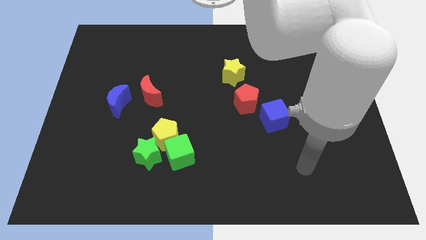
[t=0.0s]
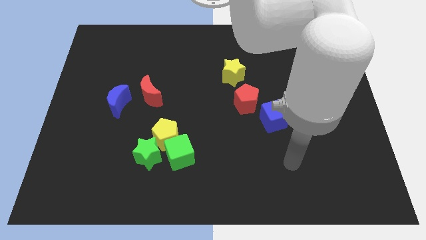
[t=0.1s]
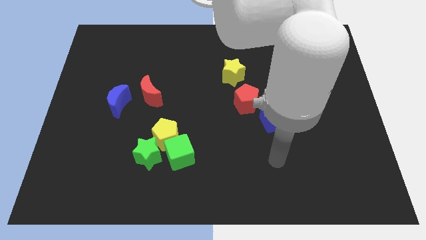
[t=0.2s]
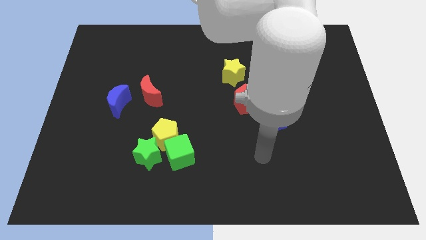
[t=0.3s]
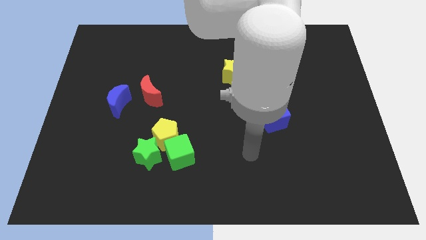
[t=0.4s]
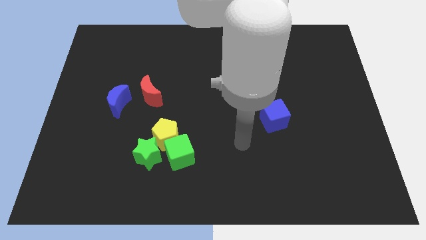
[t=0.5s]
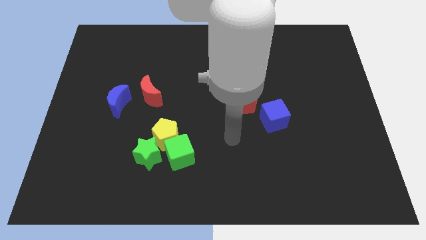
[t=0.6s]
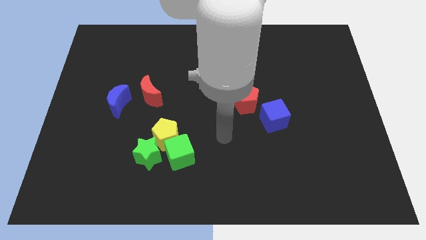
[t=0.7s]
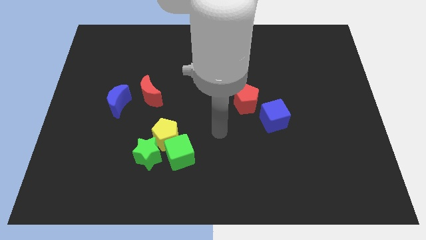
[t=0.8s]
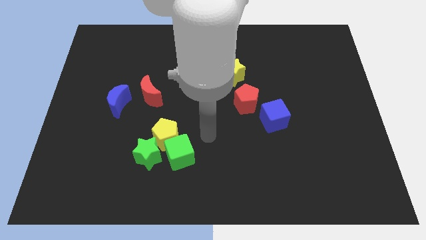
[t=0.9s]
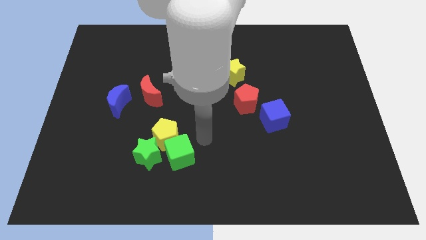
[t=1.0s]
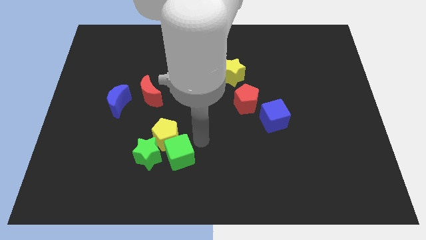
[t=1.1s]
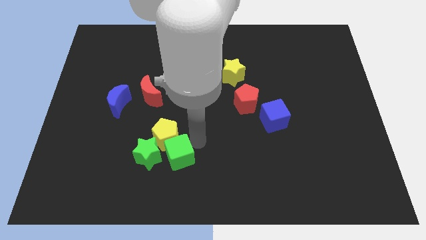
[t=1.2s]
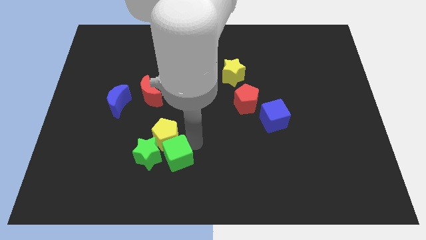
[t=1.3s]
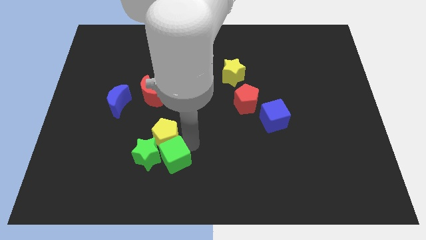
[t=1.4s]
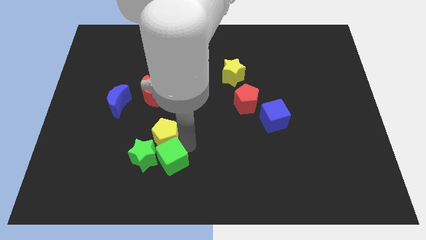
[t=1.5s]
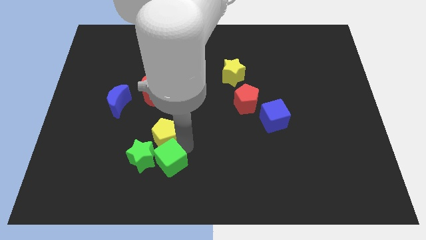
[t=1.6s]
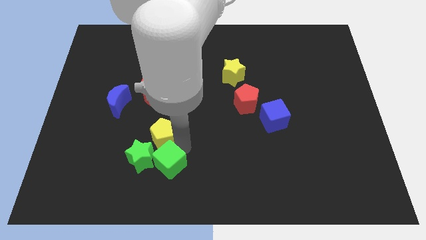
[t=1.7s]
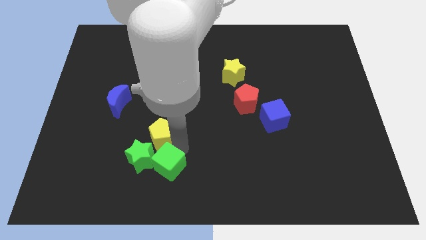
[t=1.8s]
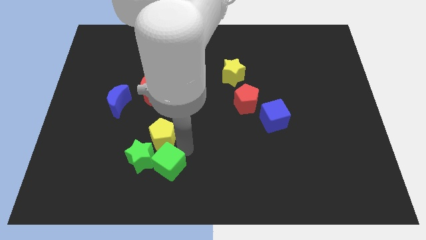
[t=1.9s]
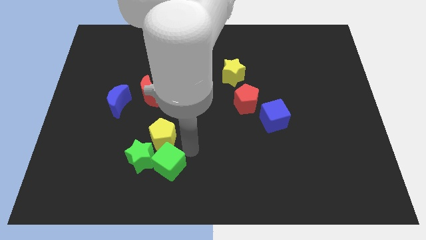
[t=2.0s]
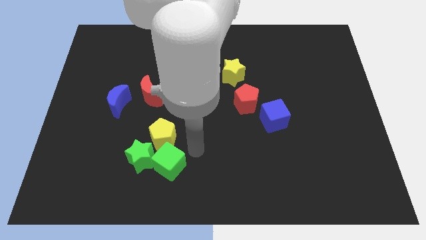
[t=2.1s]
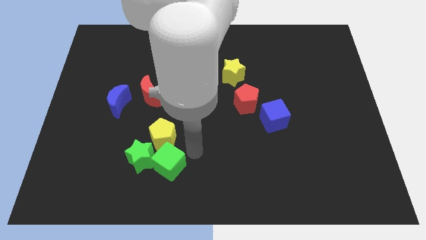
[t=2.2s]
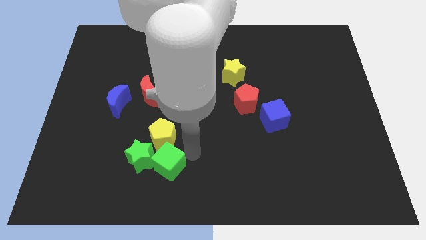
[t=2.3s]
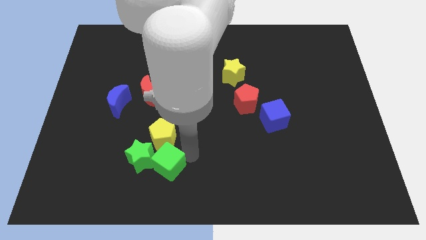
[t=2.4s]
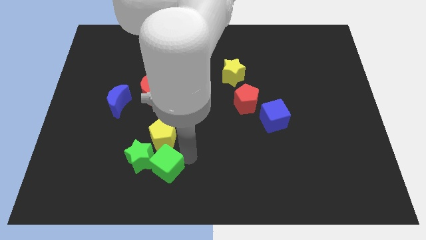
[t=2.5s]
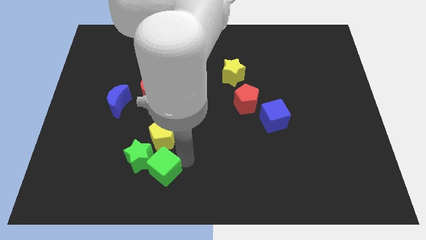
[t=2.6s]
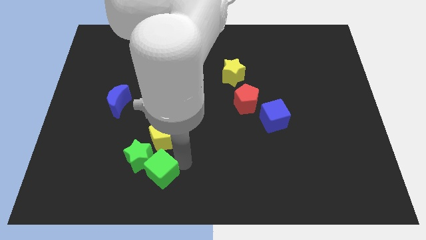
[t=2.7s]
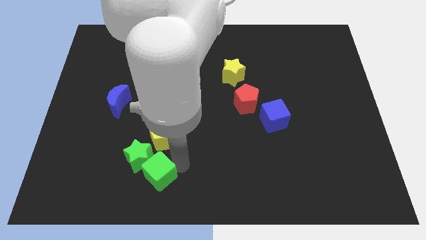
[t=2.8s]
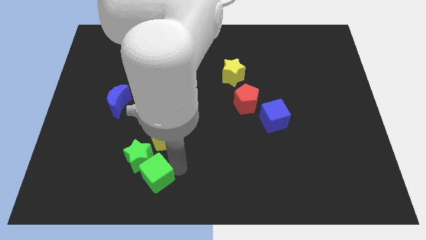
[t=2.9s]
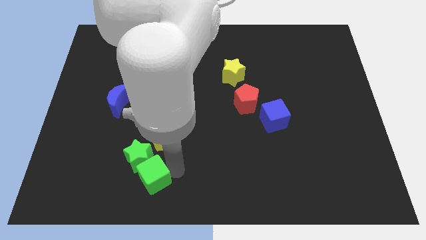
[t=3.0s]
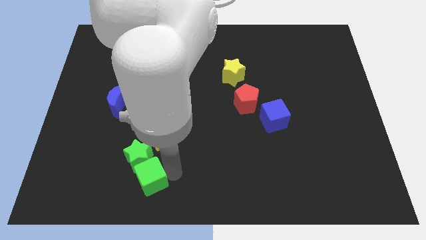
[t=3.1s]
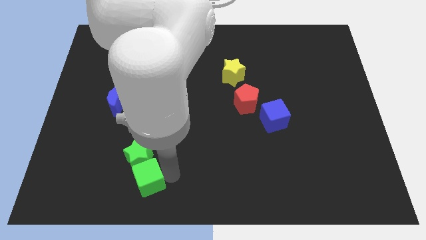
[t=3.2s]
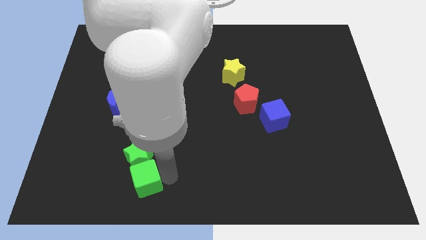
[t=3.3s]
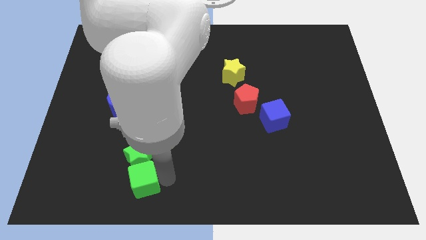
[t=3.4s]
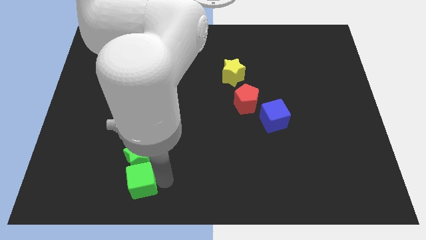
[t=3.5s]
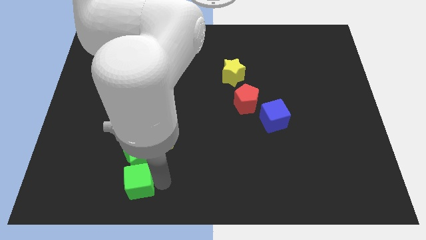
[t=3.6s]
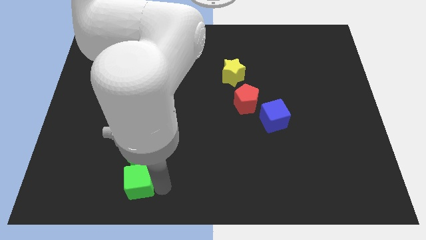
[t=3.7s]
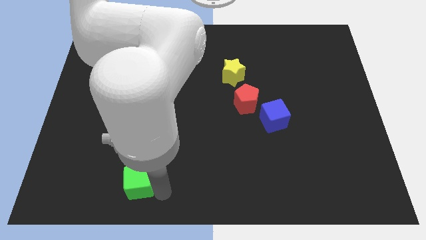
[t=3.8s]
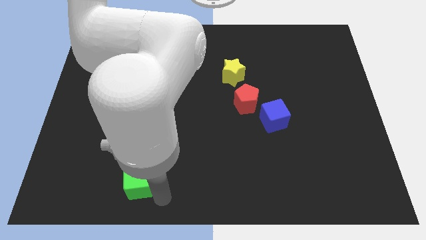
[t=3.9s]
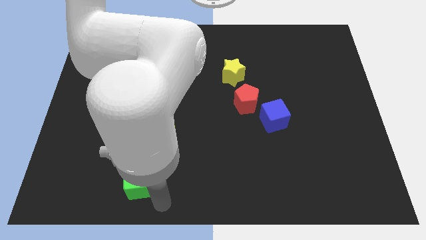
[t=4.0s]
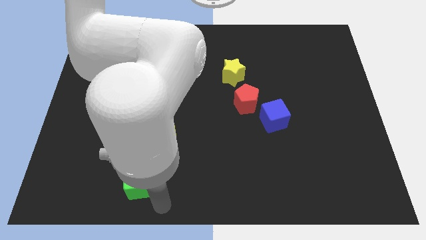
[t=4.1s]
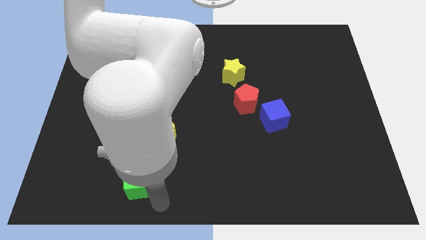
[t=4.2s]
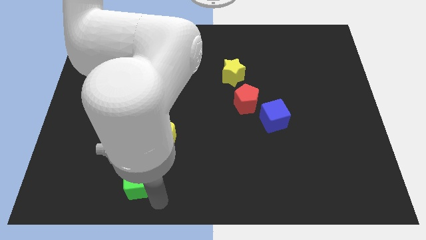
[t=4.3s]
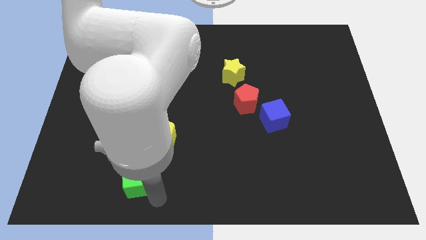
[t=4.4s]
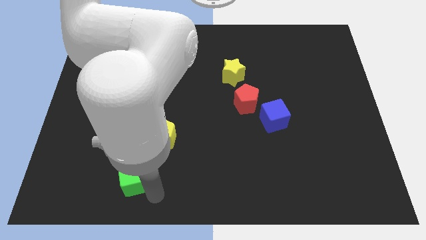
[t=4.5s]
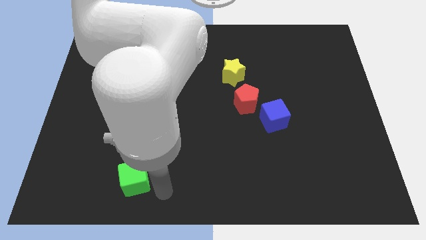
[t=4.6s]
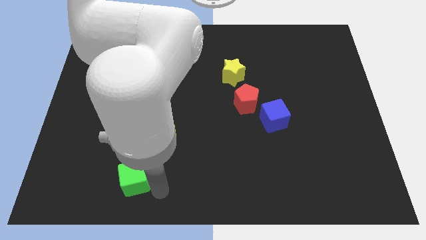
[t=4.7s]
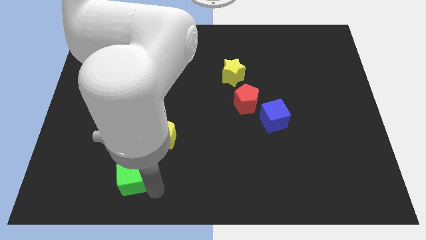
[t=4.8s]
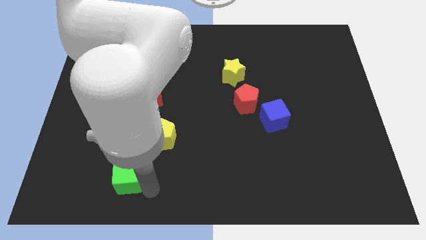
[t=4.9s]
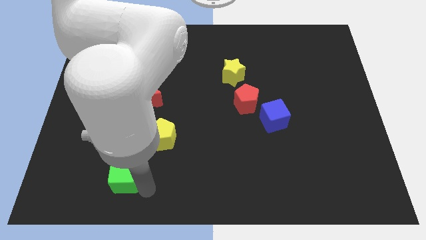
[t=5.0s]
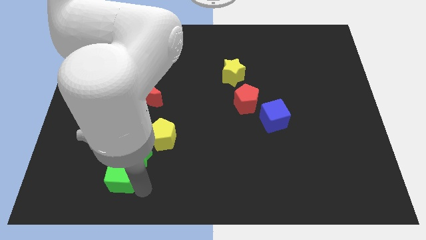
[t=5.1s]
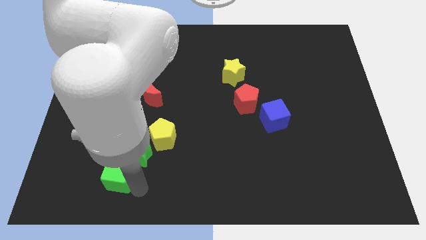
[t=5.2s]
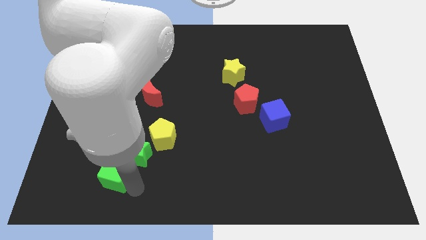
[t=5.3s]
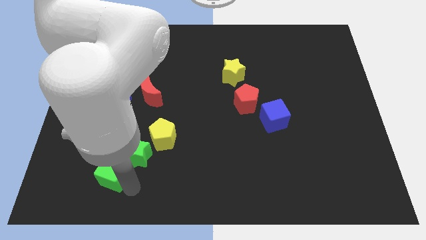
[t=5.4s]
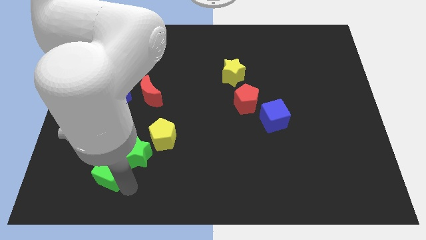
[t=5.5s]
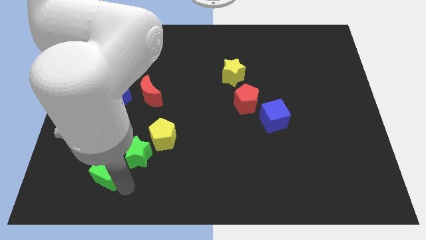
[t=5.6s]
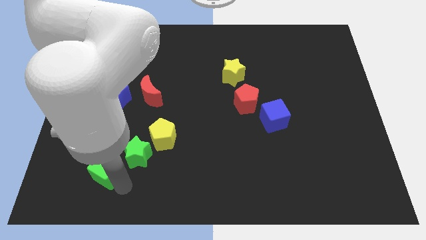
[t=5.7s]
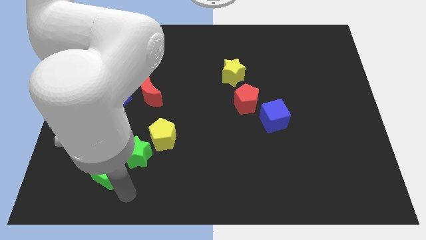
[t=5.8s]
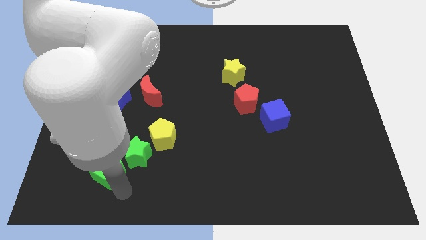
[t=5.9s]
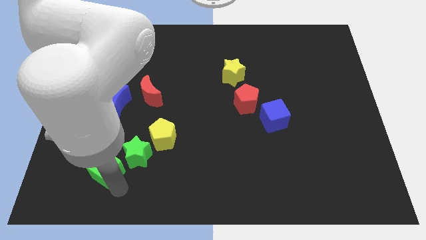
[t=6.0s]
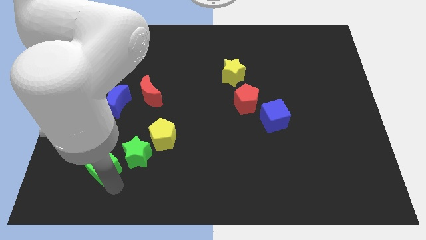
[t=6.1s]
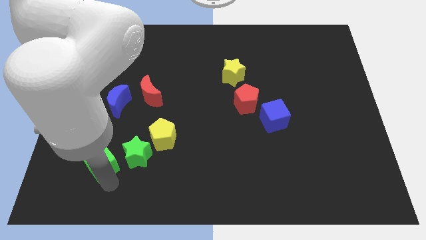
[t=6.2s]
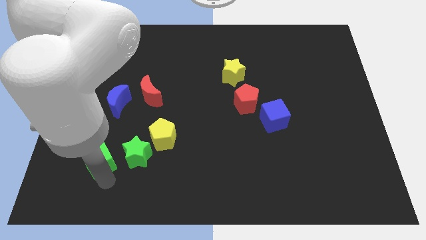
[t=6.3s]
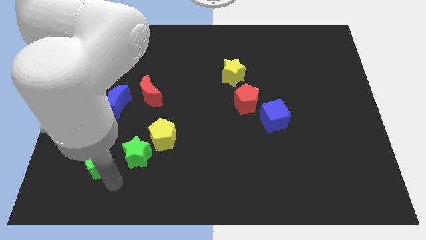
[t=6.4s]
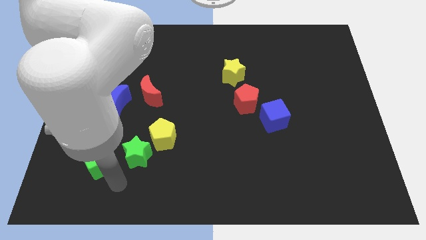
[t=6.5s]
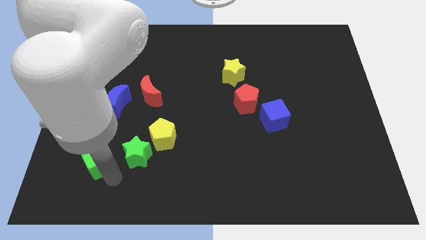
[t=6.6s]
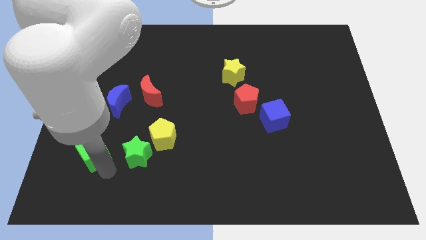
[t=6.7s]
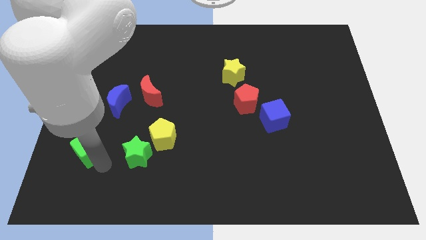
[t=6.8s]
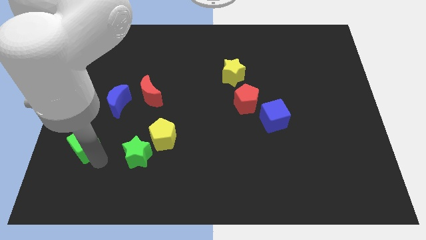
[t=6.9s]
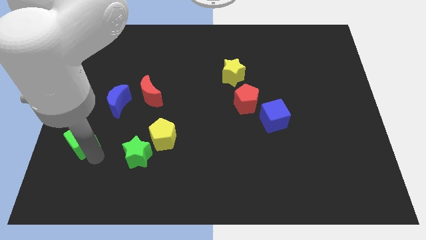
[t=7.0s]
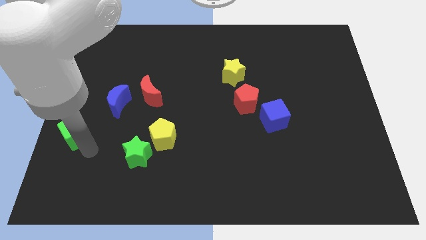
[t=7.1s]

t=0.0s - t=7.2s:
slide the green cube to the left side
